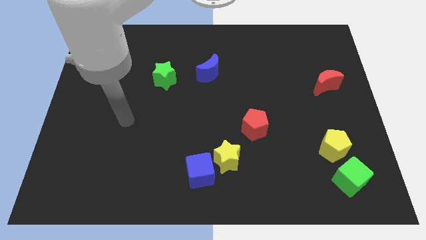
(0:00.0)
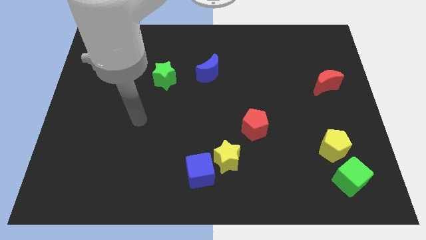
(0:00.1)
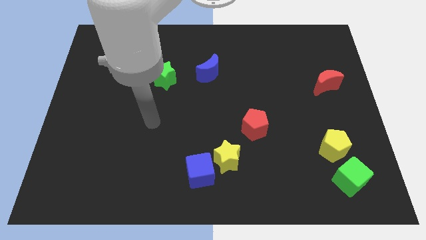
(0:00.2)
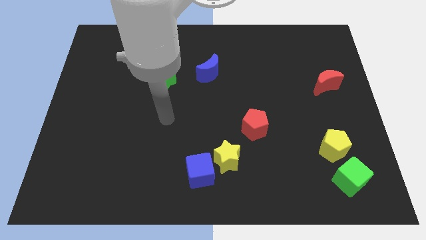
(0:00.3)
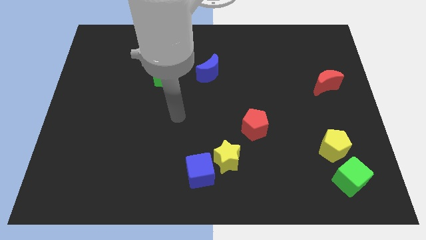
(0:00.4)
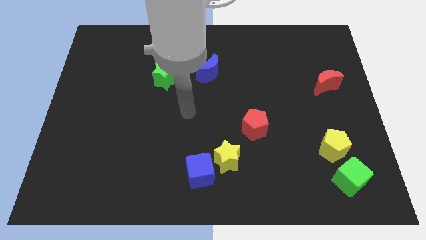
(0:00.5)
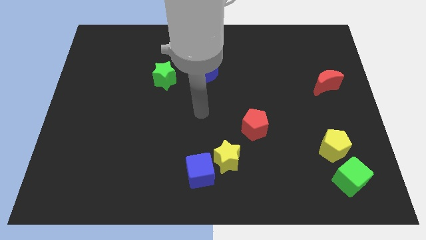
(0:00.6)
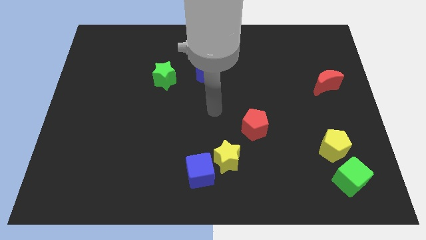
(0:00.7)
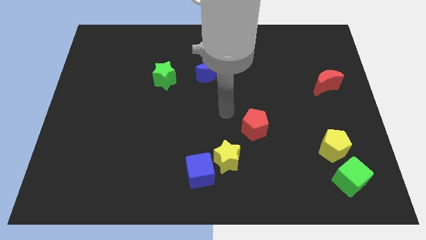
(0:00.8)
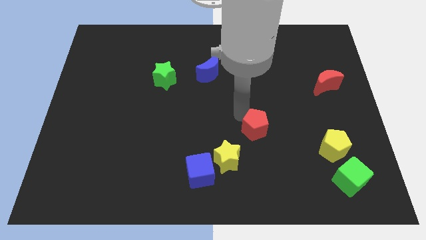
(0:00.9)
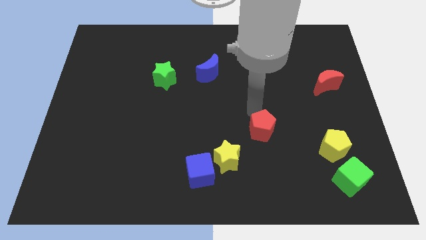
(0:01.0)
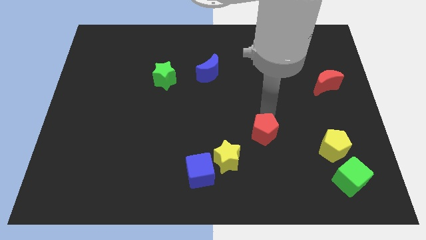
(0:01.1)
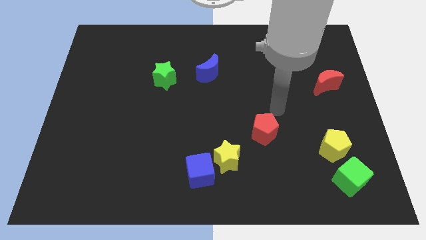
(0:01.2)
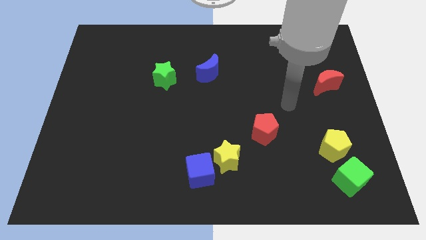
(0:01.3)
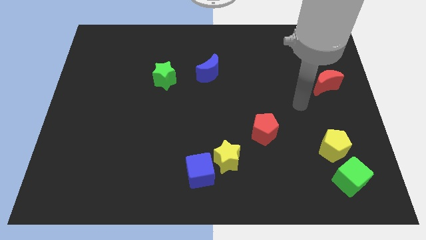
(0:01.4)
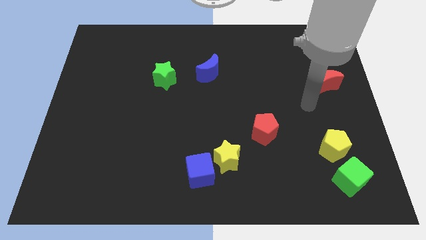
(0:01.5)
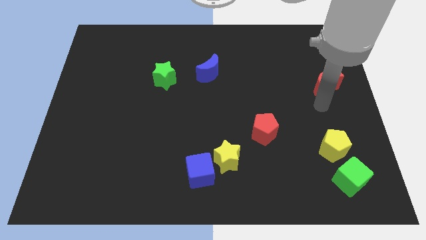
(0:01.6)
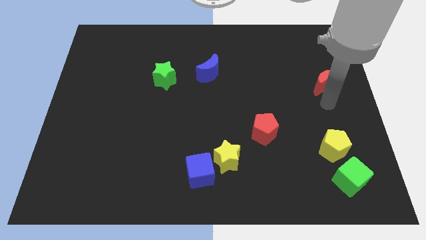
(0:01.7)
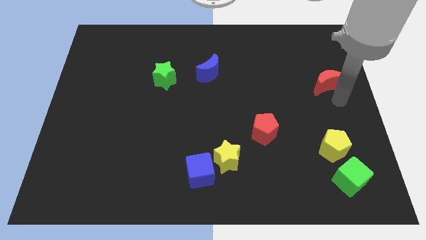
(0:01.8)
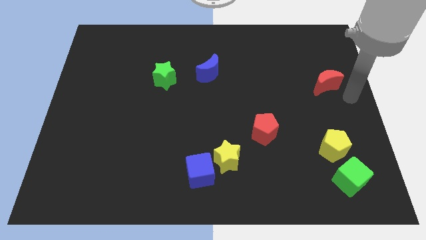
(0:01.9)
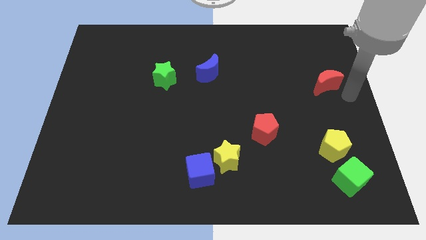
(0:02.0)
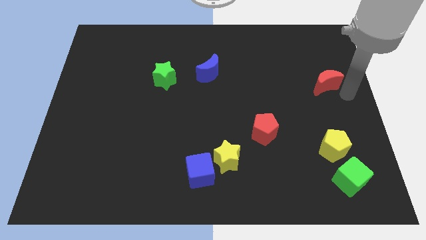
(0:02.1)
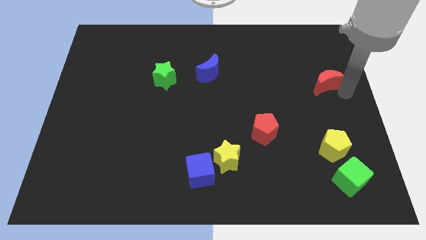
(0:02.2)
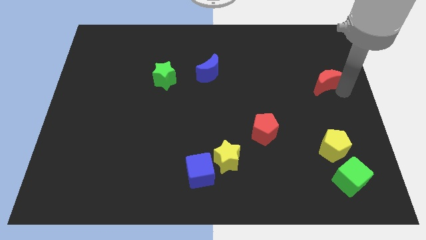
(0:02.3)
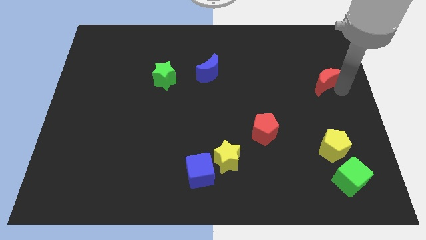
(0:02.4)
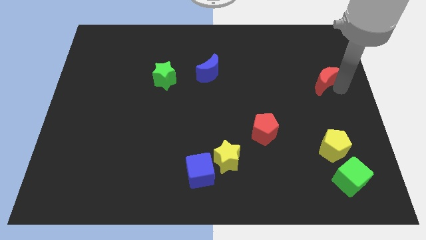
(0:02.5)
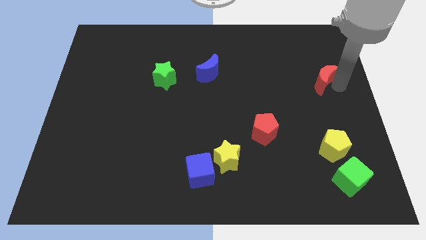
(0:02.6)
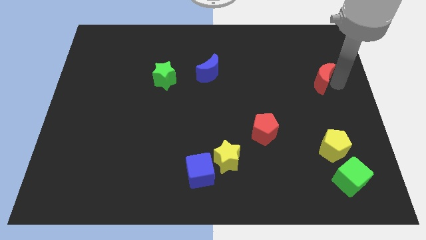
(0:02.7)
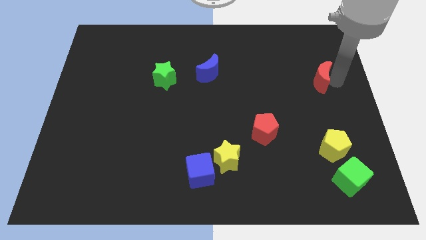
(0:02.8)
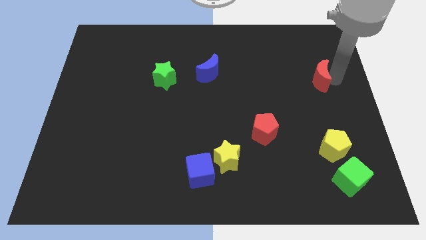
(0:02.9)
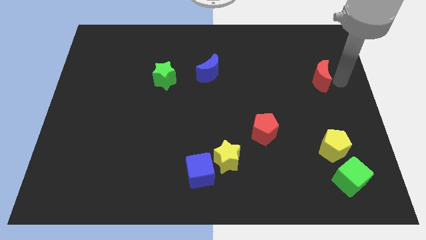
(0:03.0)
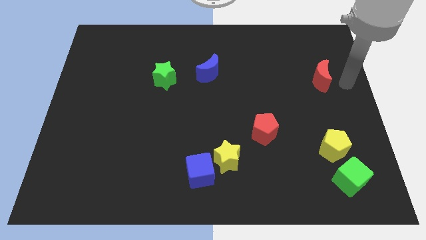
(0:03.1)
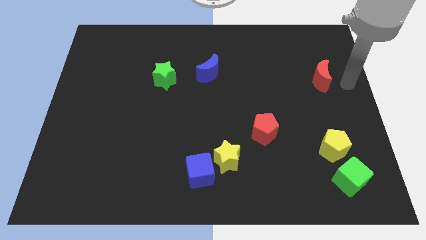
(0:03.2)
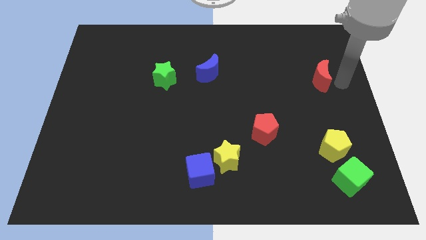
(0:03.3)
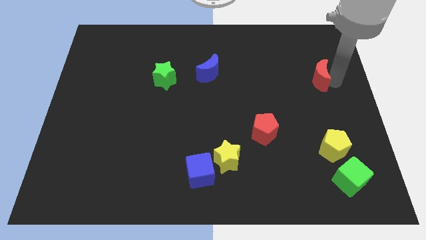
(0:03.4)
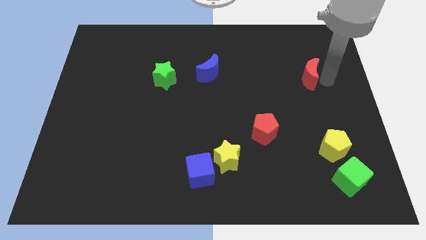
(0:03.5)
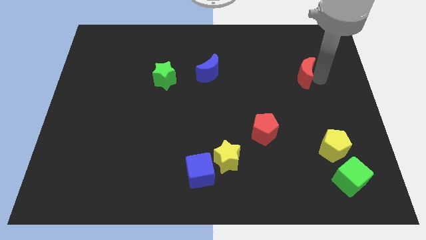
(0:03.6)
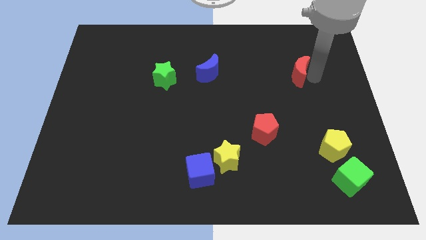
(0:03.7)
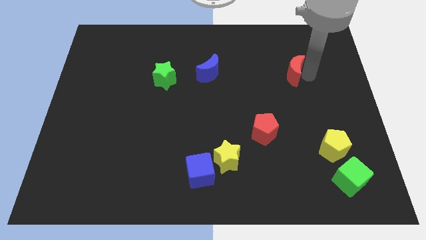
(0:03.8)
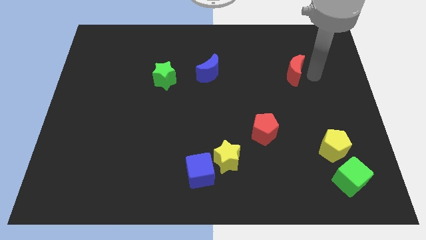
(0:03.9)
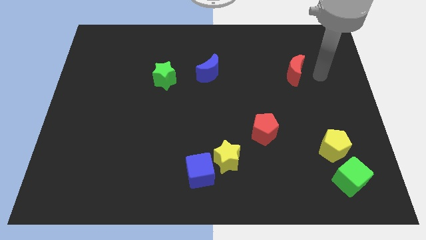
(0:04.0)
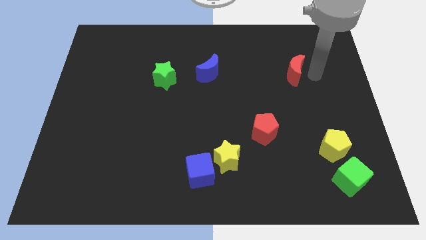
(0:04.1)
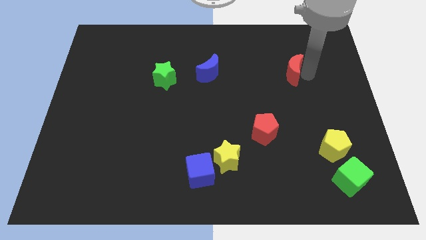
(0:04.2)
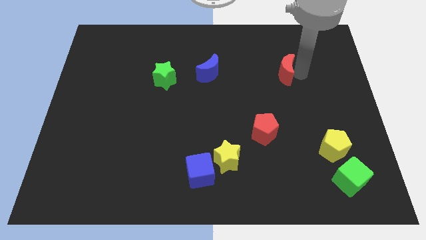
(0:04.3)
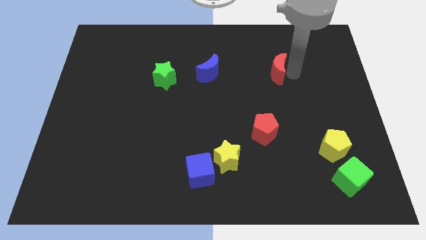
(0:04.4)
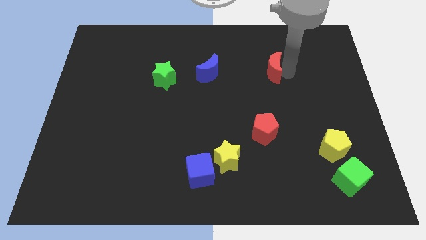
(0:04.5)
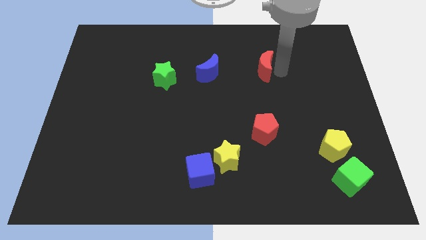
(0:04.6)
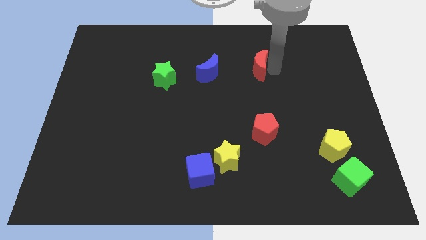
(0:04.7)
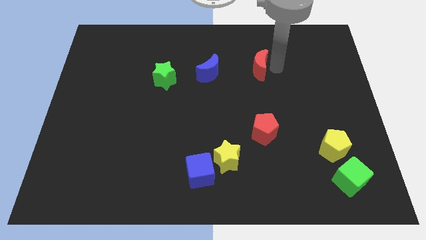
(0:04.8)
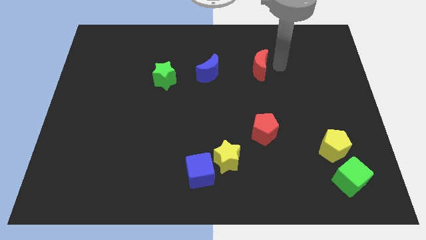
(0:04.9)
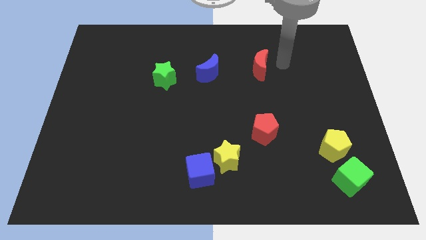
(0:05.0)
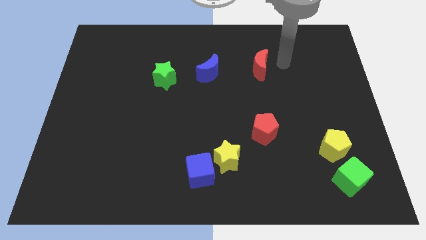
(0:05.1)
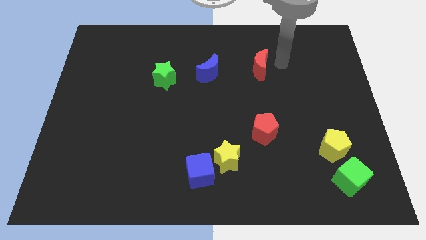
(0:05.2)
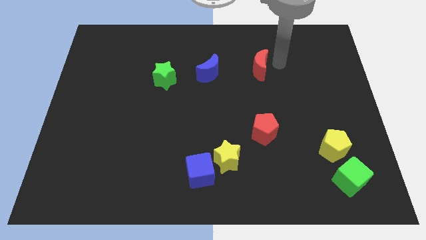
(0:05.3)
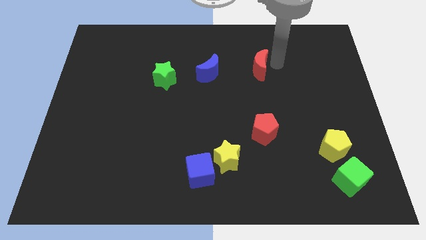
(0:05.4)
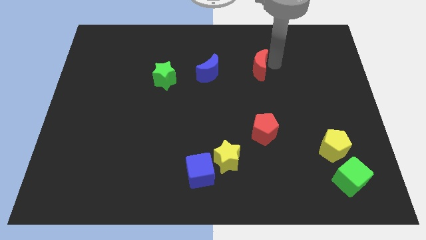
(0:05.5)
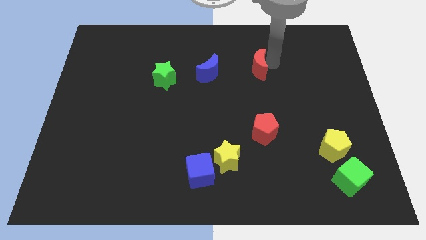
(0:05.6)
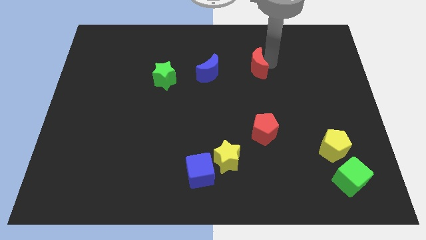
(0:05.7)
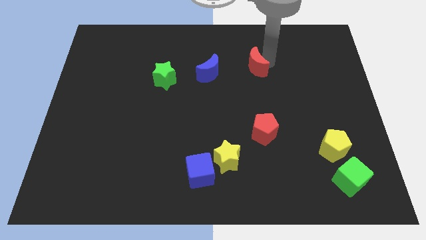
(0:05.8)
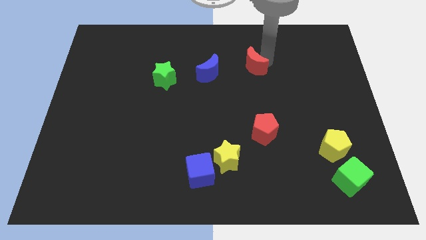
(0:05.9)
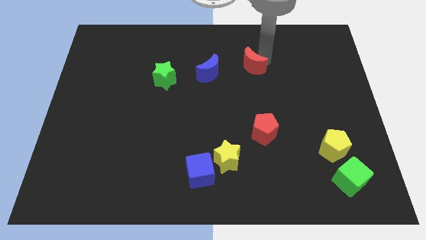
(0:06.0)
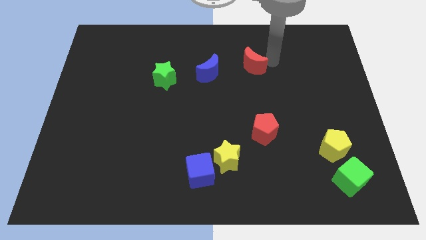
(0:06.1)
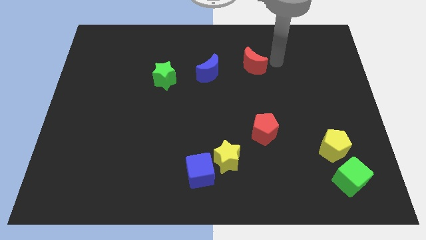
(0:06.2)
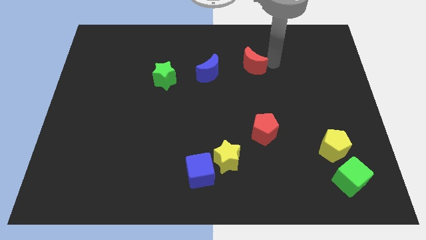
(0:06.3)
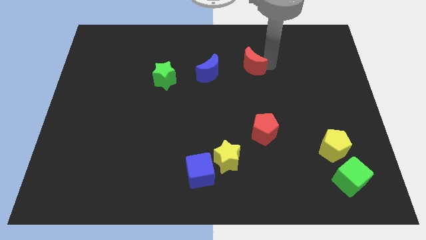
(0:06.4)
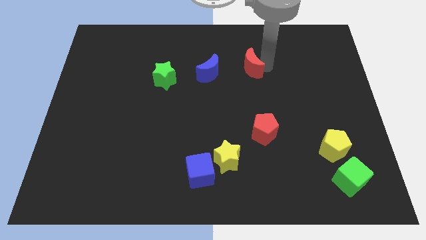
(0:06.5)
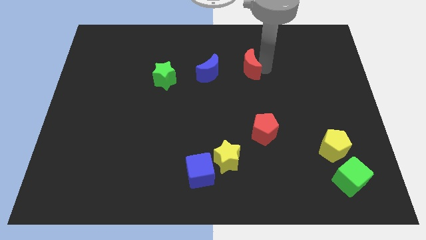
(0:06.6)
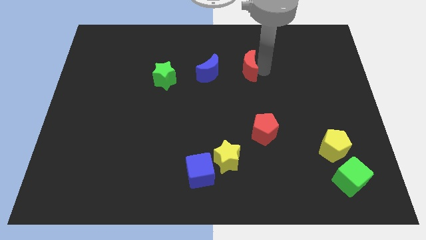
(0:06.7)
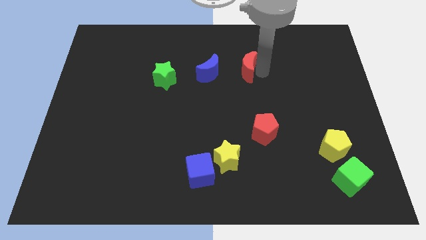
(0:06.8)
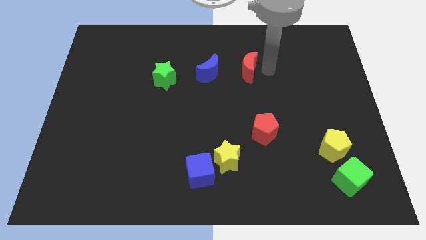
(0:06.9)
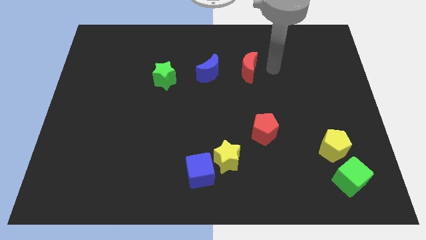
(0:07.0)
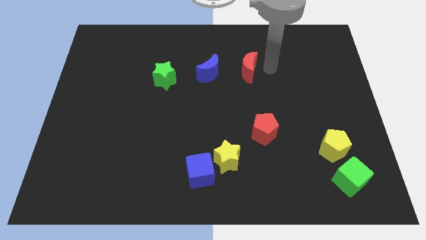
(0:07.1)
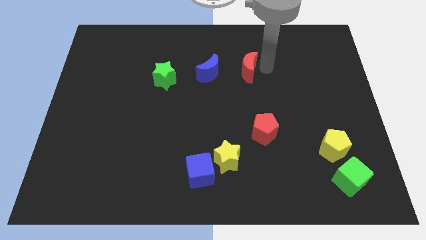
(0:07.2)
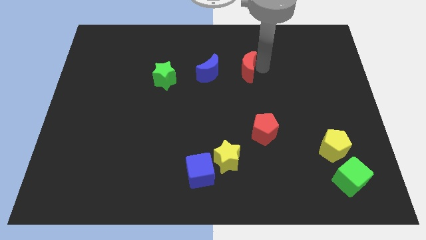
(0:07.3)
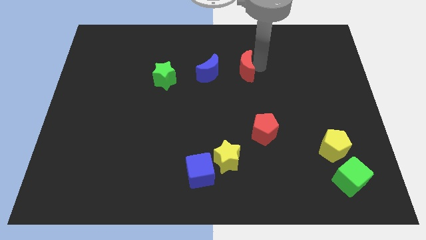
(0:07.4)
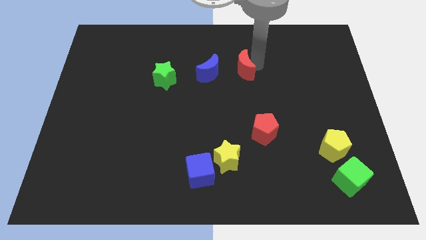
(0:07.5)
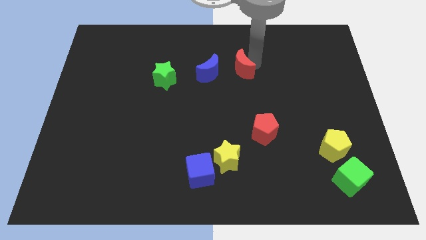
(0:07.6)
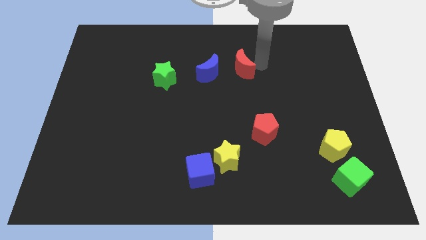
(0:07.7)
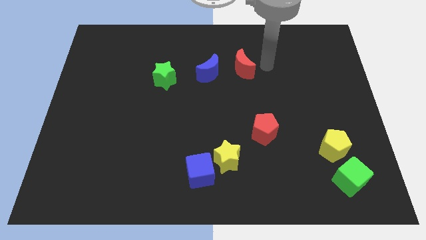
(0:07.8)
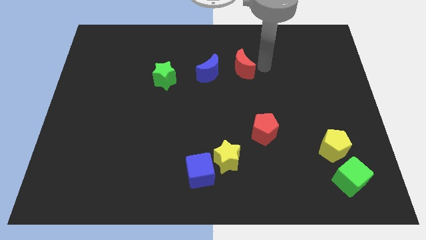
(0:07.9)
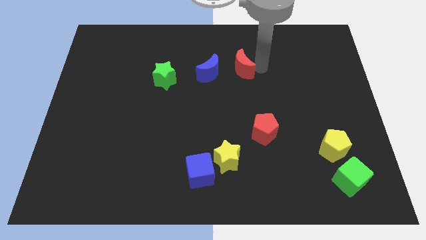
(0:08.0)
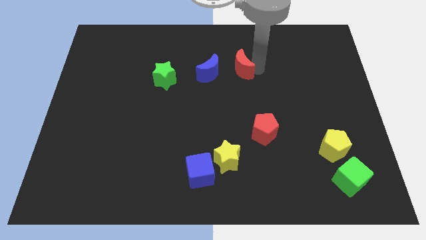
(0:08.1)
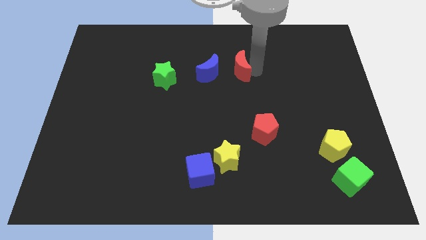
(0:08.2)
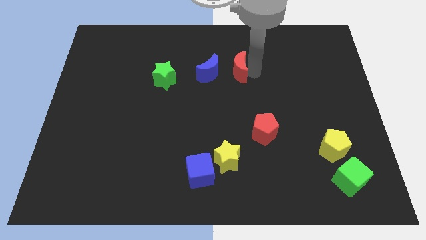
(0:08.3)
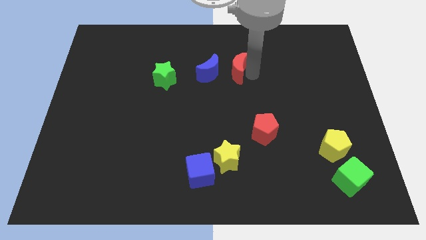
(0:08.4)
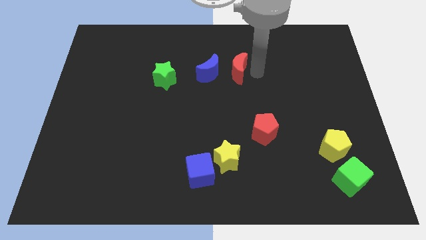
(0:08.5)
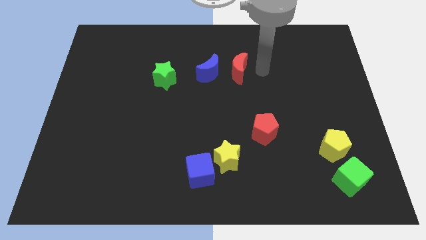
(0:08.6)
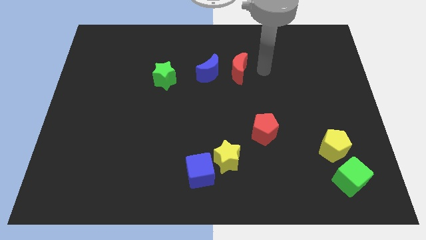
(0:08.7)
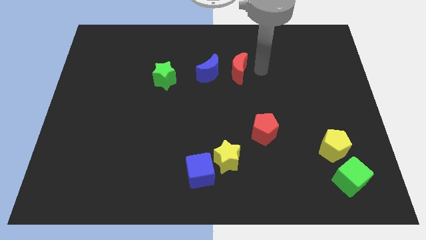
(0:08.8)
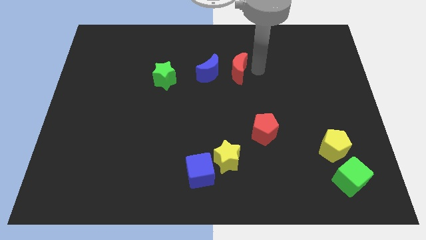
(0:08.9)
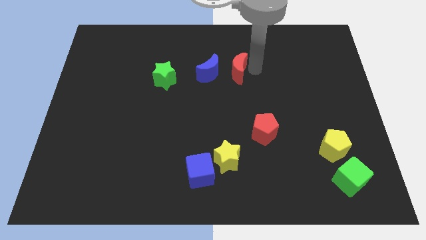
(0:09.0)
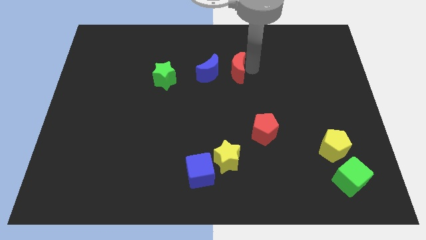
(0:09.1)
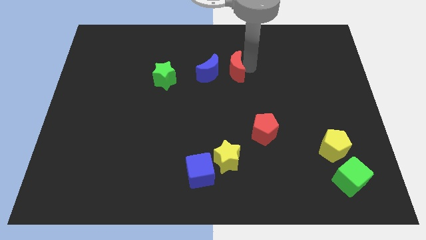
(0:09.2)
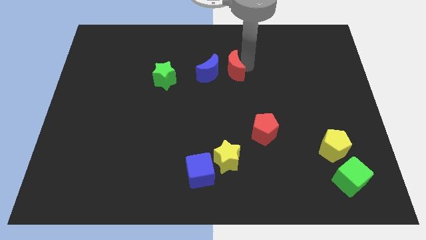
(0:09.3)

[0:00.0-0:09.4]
push the red moon close to the blue moon
